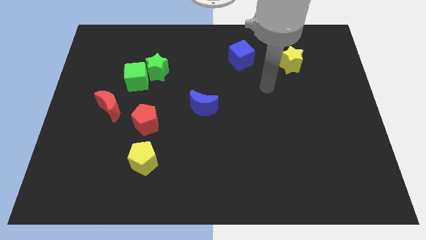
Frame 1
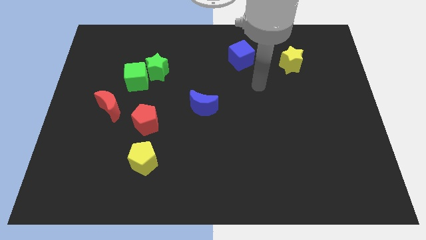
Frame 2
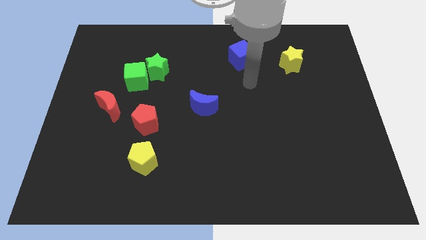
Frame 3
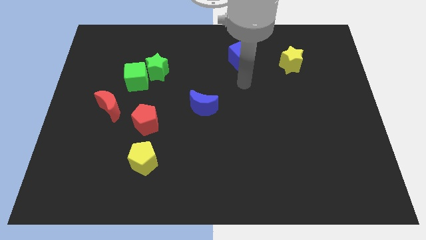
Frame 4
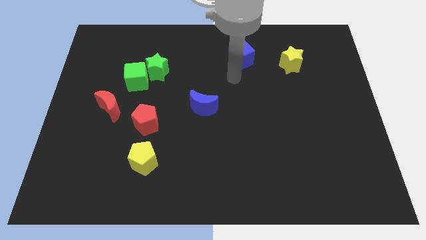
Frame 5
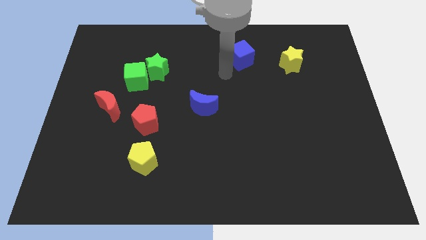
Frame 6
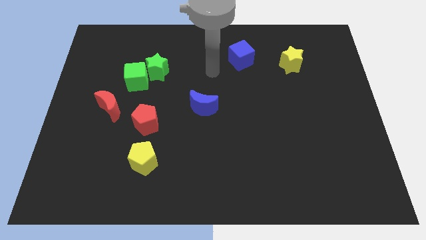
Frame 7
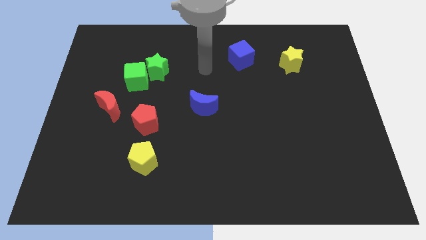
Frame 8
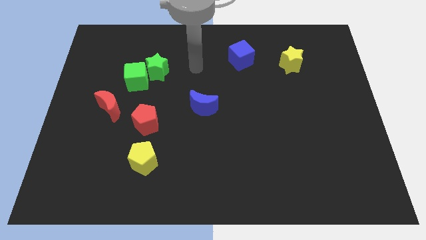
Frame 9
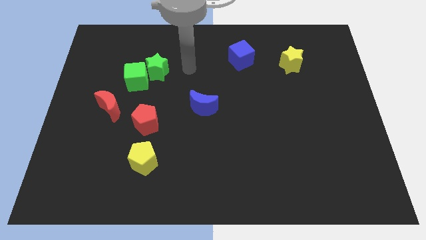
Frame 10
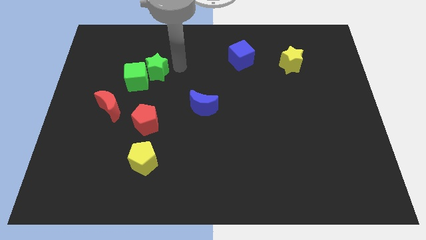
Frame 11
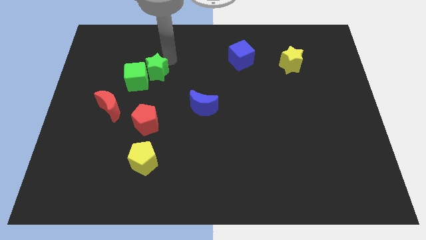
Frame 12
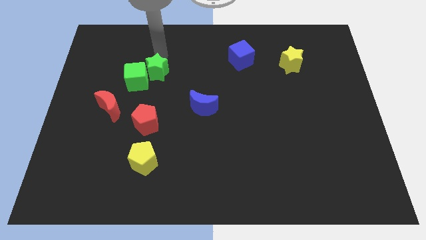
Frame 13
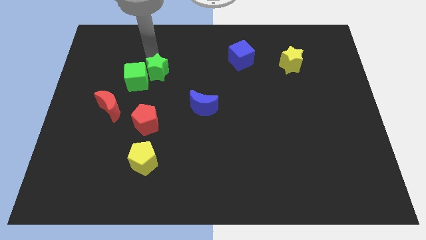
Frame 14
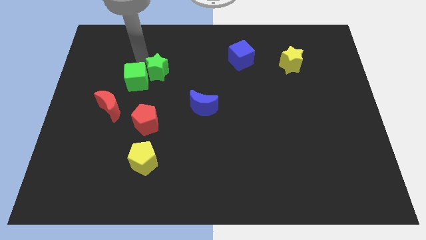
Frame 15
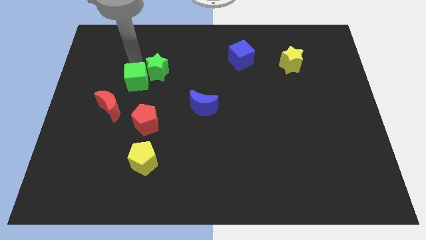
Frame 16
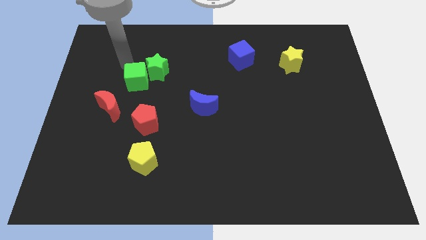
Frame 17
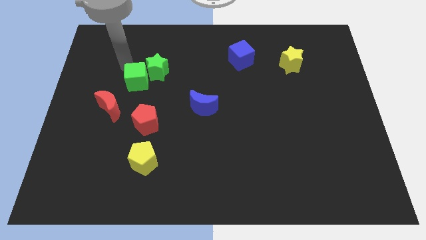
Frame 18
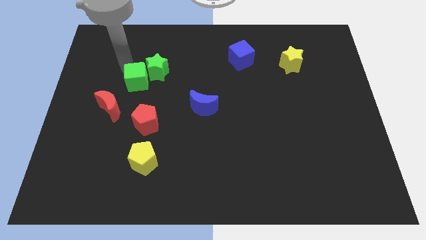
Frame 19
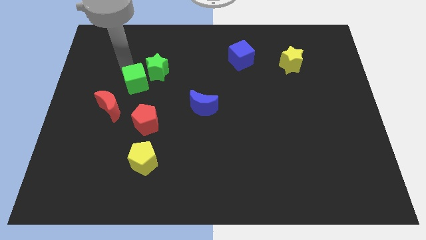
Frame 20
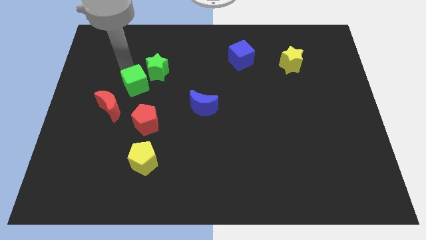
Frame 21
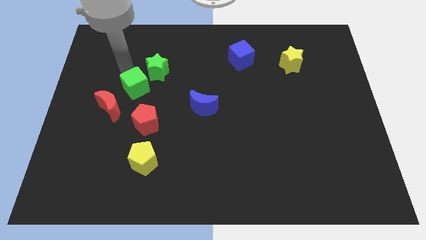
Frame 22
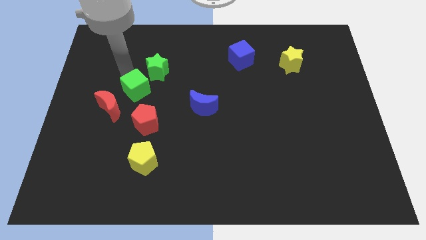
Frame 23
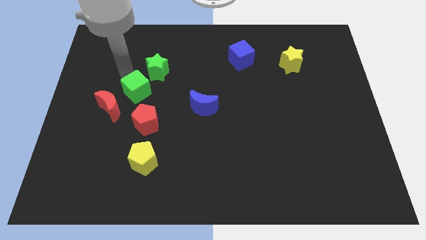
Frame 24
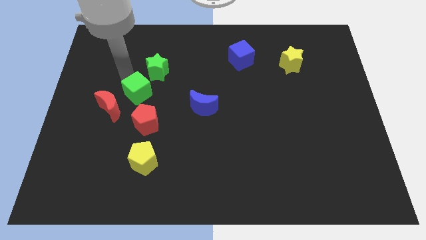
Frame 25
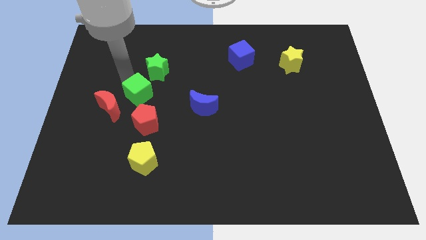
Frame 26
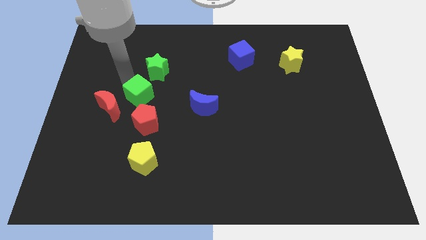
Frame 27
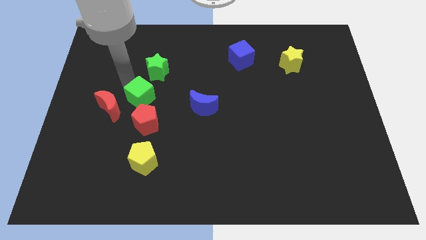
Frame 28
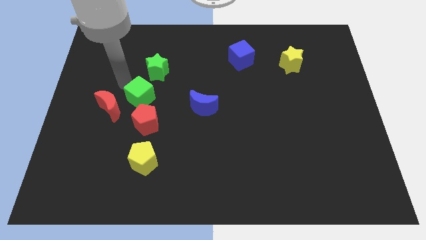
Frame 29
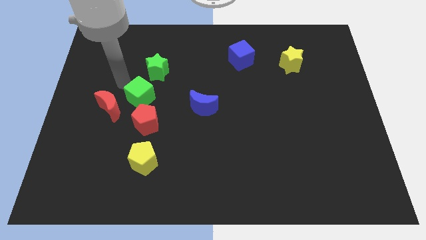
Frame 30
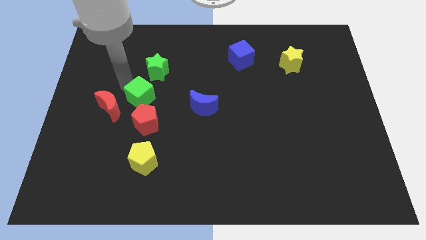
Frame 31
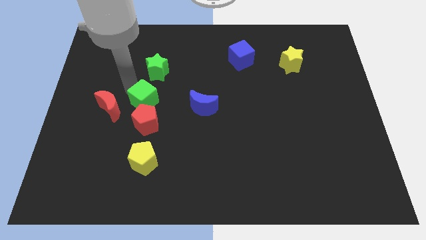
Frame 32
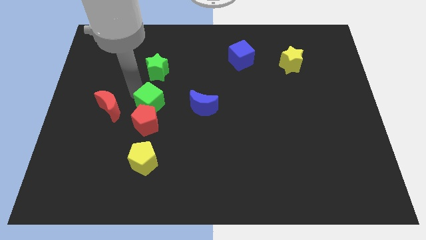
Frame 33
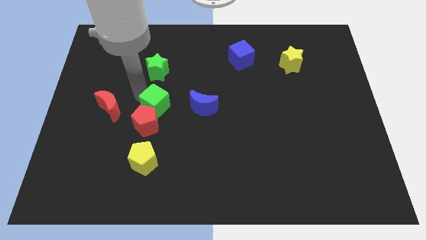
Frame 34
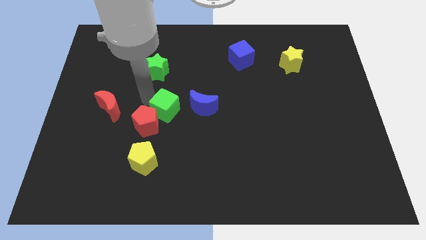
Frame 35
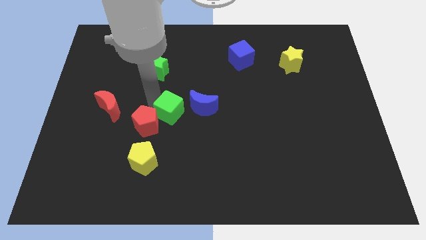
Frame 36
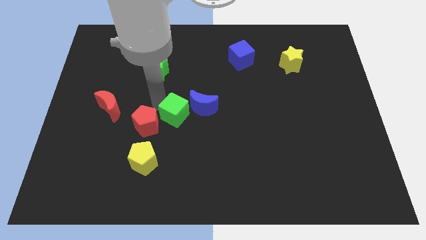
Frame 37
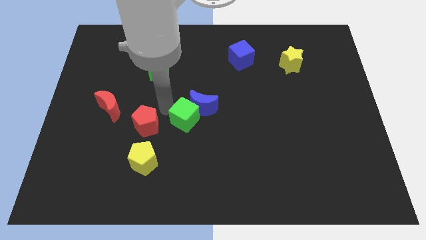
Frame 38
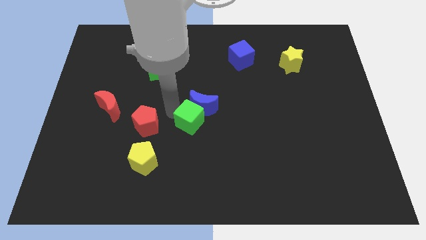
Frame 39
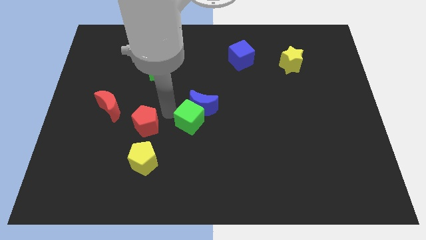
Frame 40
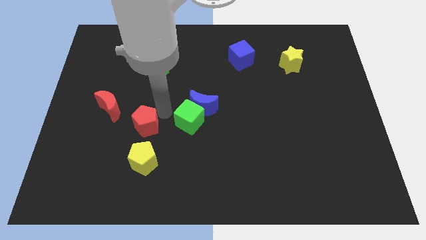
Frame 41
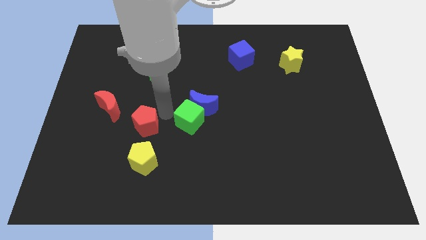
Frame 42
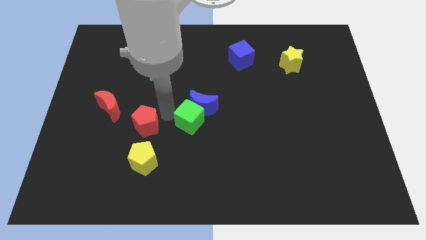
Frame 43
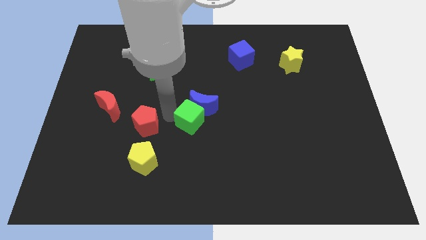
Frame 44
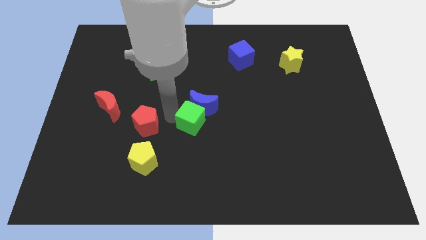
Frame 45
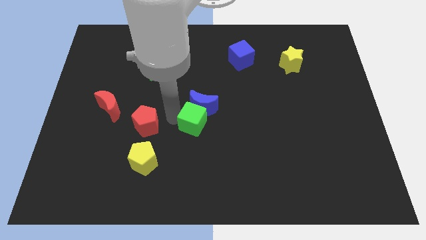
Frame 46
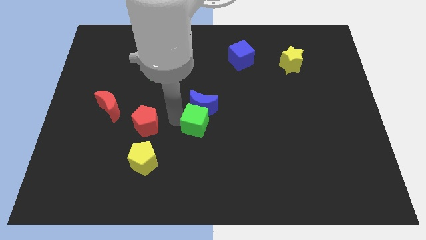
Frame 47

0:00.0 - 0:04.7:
push the green cube diagonally downwards and to the right

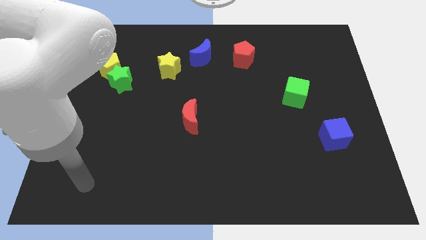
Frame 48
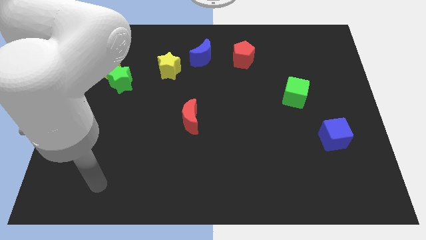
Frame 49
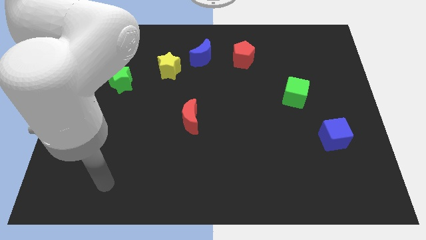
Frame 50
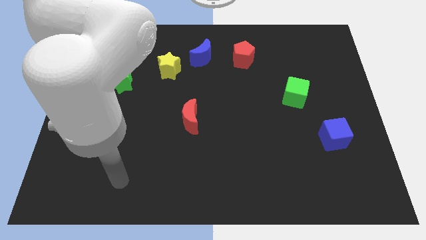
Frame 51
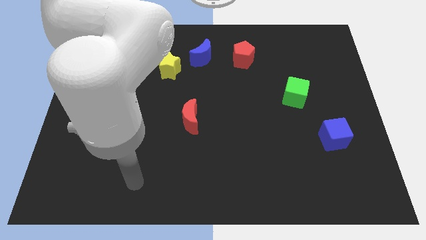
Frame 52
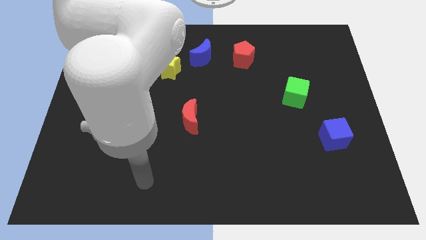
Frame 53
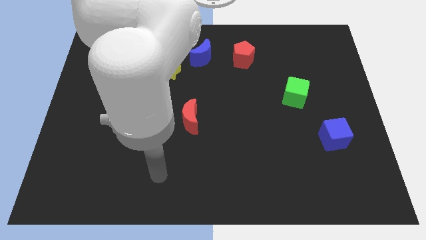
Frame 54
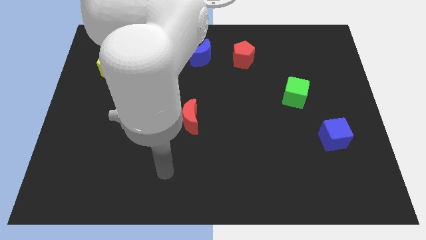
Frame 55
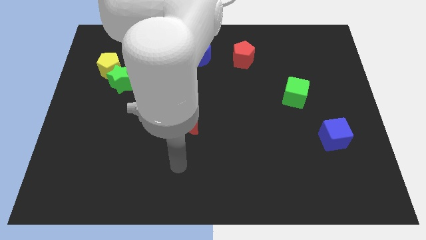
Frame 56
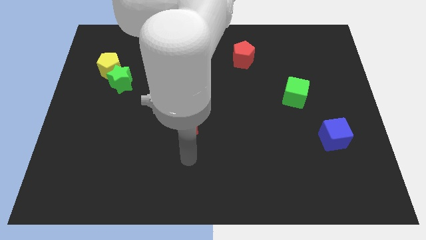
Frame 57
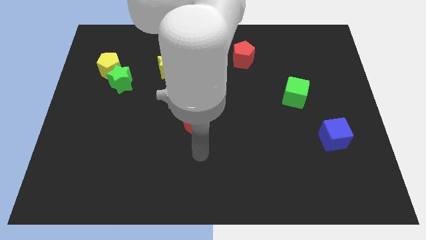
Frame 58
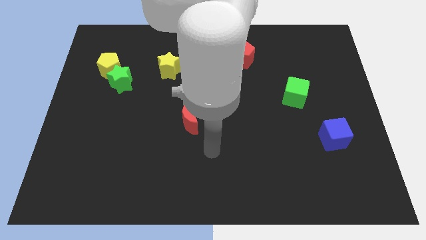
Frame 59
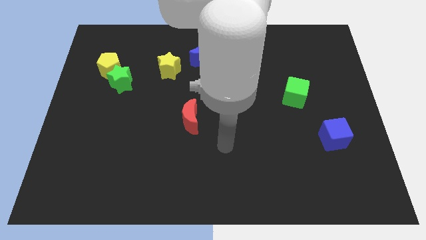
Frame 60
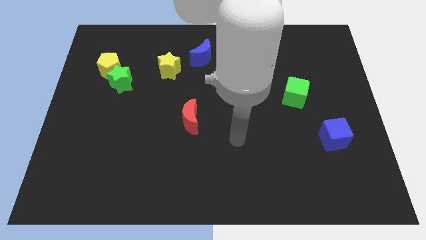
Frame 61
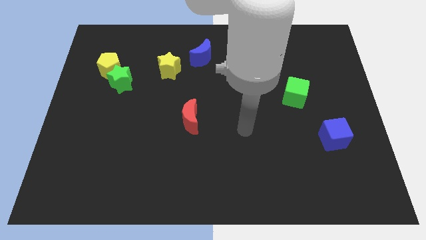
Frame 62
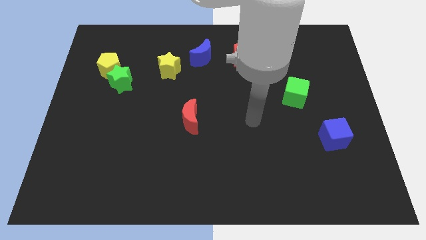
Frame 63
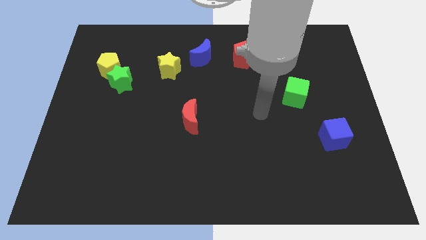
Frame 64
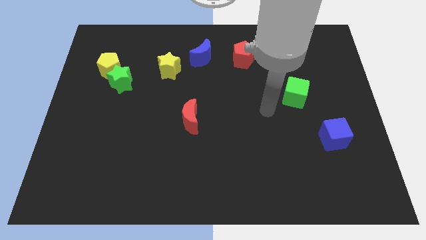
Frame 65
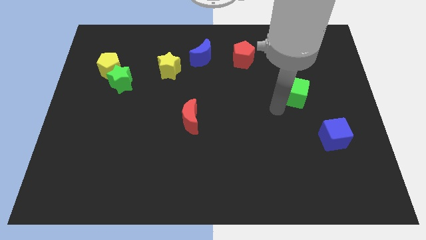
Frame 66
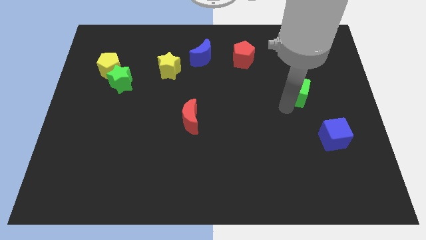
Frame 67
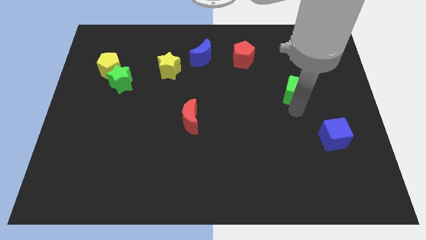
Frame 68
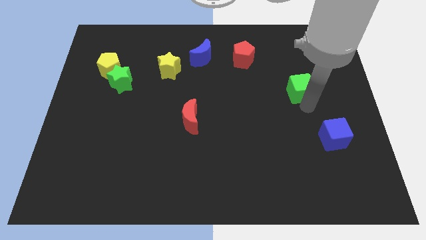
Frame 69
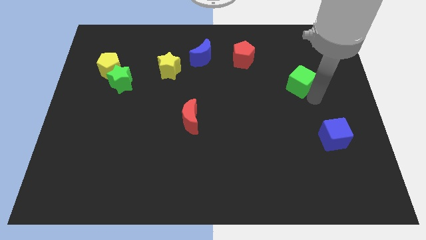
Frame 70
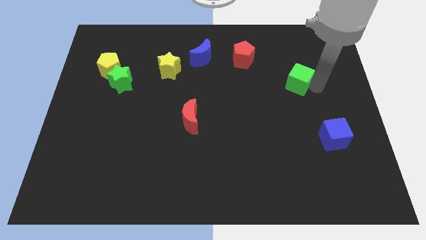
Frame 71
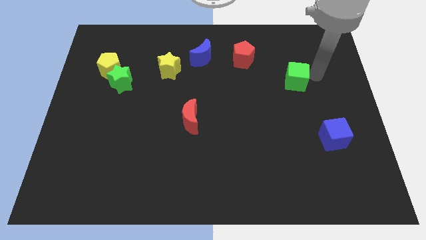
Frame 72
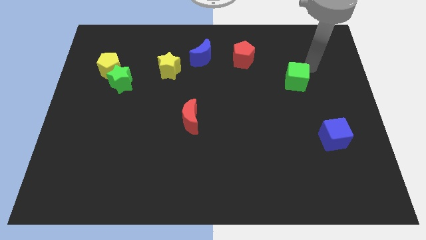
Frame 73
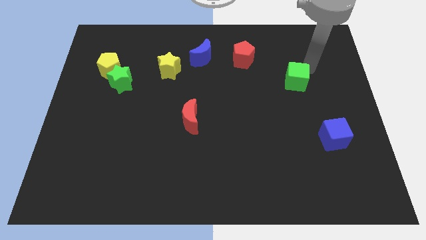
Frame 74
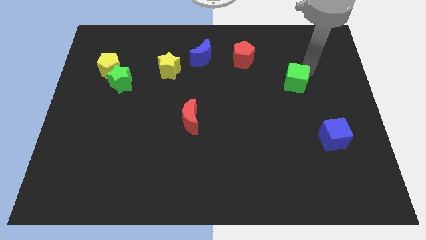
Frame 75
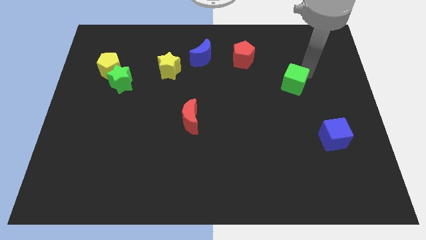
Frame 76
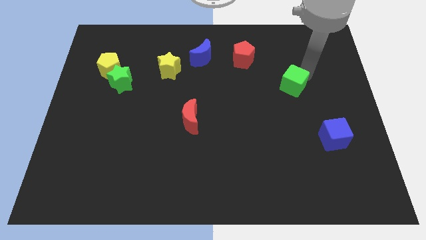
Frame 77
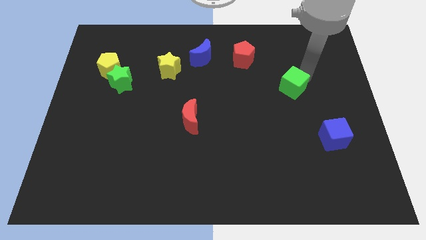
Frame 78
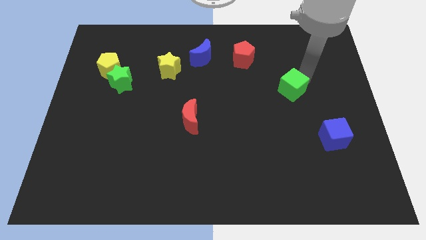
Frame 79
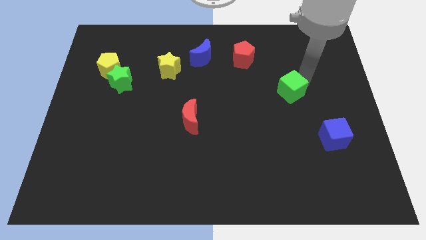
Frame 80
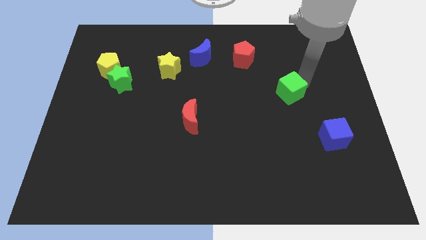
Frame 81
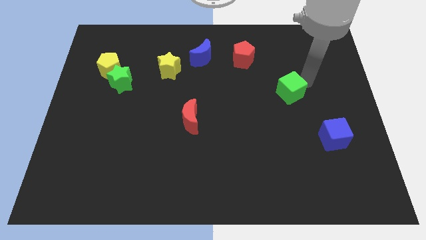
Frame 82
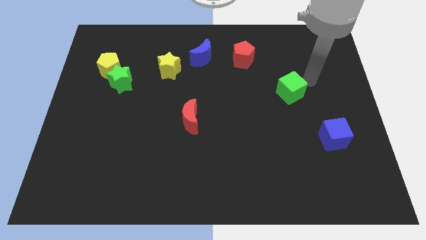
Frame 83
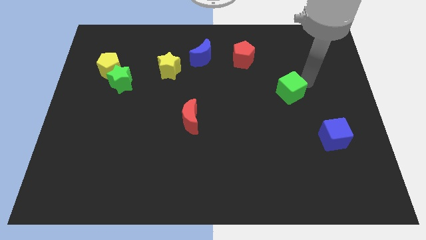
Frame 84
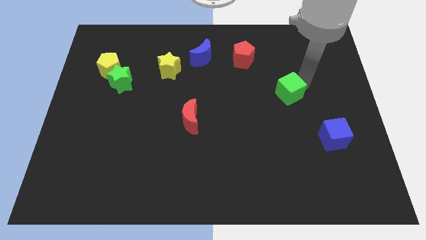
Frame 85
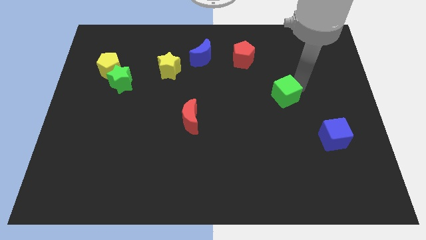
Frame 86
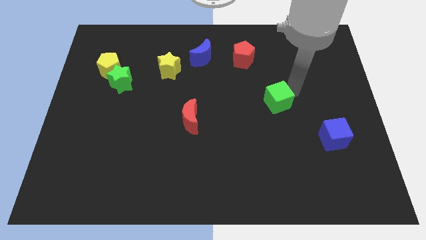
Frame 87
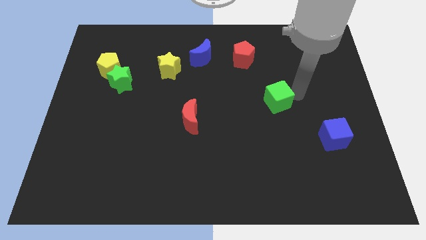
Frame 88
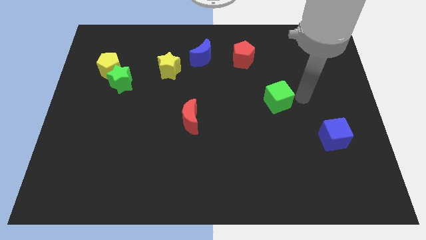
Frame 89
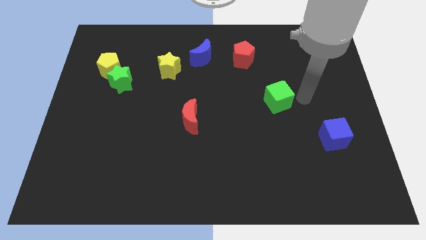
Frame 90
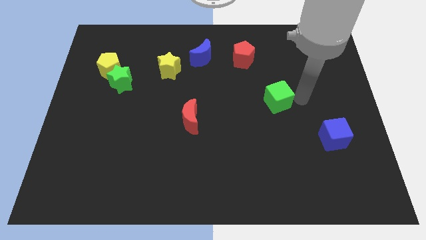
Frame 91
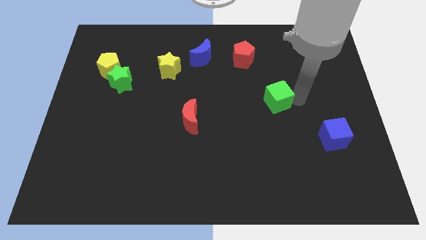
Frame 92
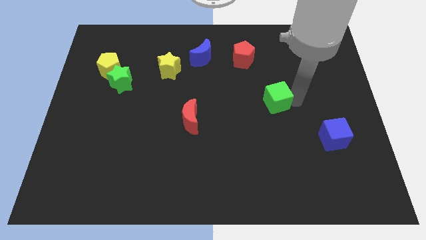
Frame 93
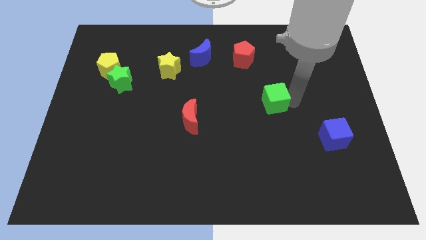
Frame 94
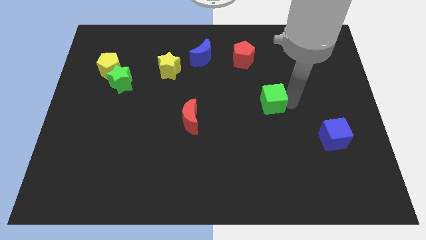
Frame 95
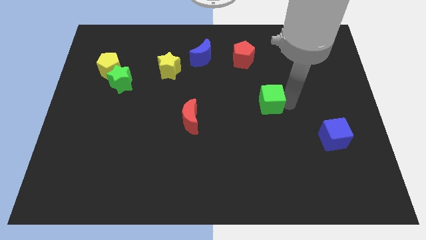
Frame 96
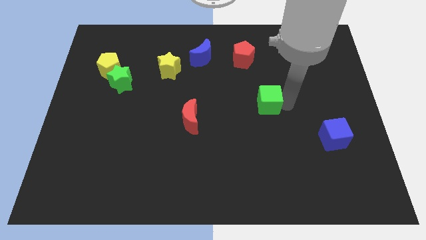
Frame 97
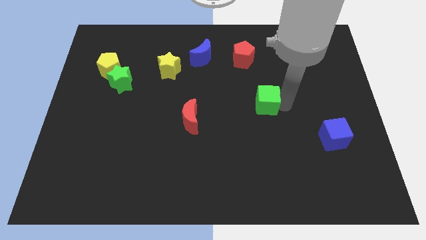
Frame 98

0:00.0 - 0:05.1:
push the green cube to the left a little bit
